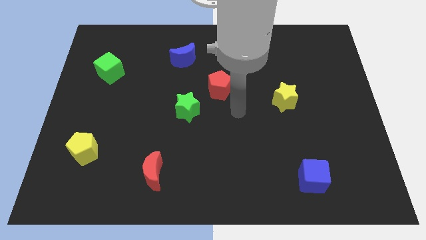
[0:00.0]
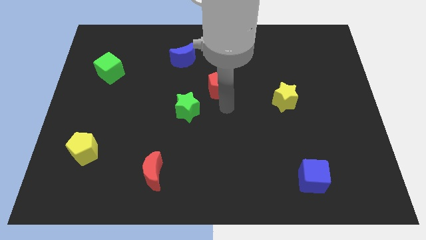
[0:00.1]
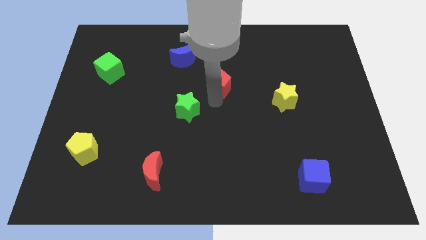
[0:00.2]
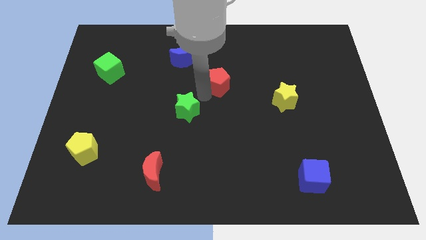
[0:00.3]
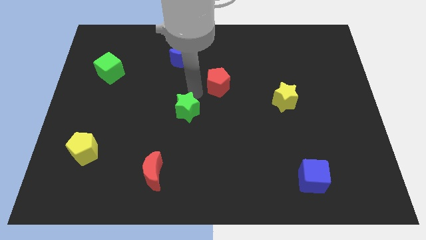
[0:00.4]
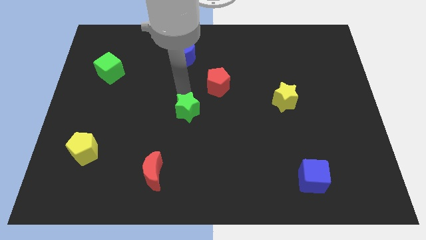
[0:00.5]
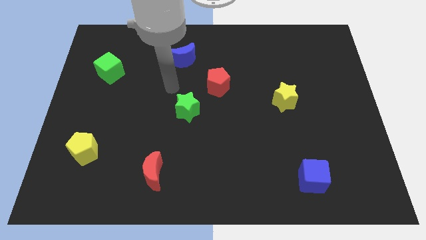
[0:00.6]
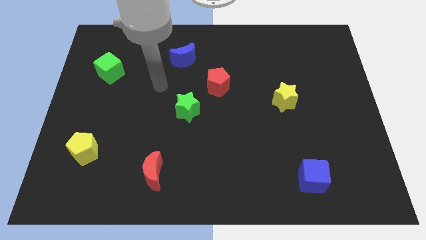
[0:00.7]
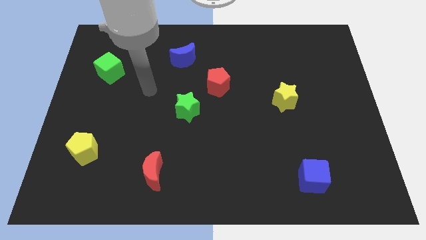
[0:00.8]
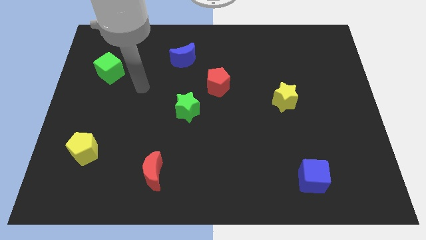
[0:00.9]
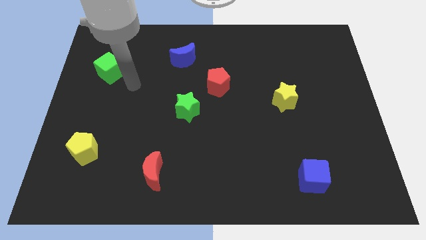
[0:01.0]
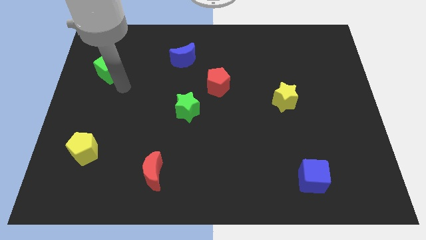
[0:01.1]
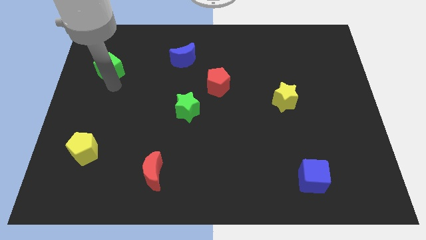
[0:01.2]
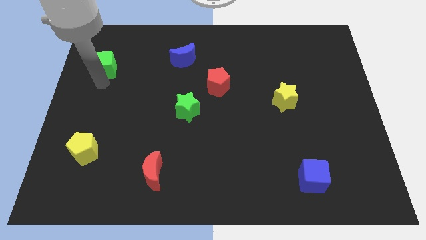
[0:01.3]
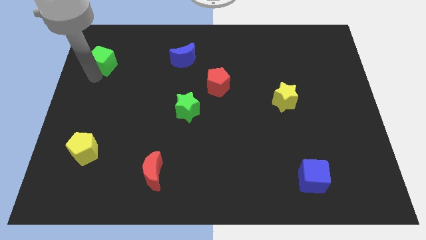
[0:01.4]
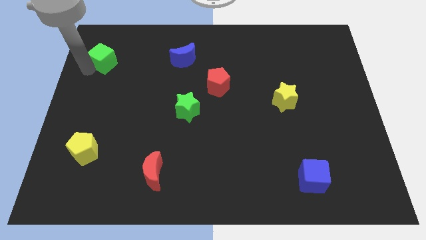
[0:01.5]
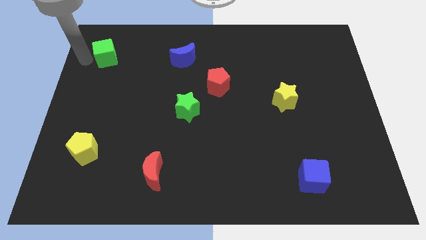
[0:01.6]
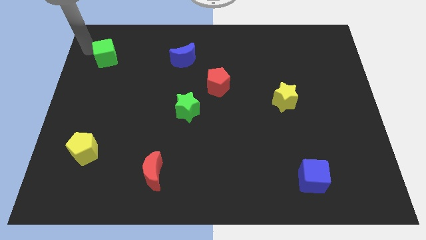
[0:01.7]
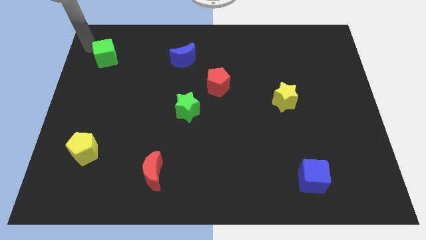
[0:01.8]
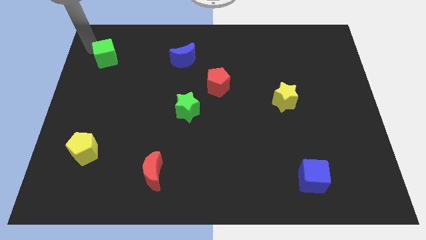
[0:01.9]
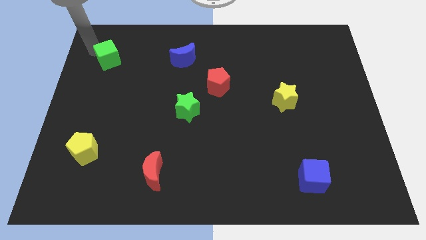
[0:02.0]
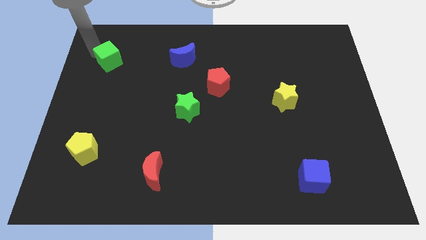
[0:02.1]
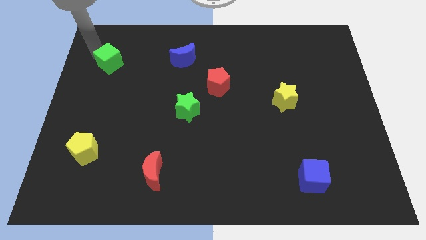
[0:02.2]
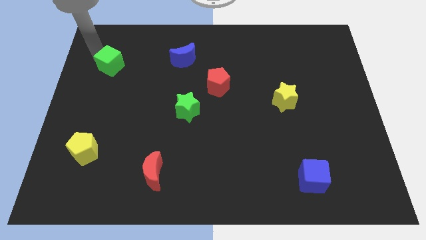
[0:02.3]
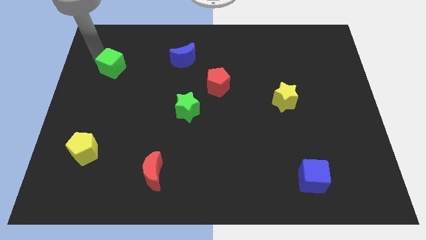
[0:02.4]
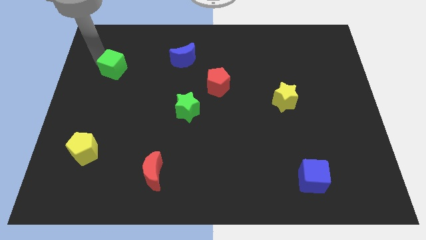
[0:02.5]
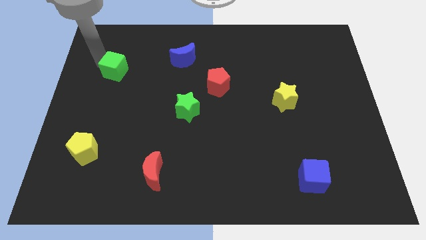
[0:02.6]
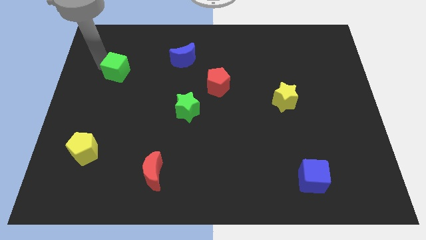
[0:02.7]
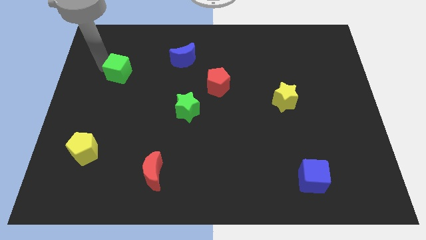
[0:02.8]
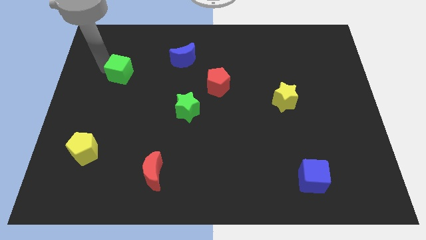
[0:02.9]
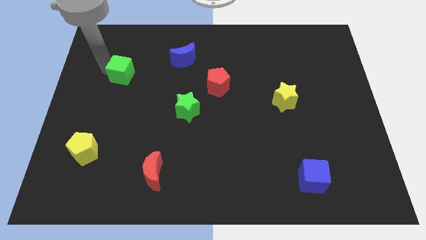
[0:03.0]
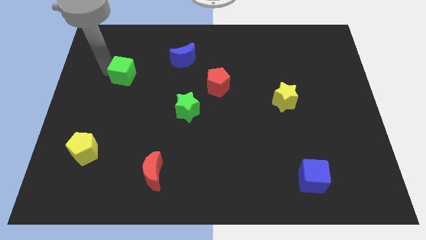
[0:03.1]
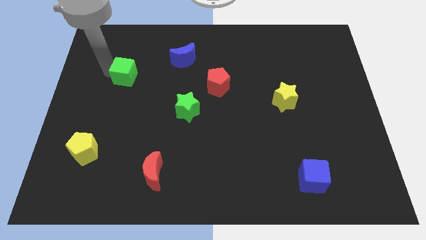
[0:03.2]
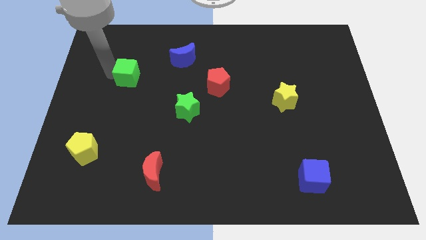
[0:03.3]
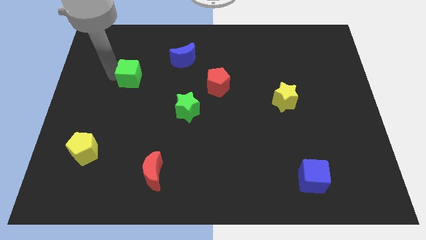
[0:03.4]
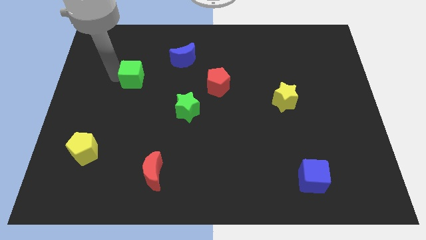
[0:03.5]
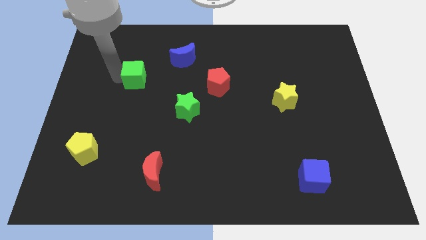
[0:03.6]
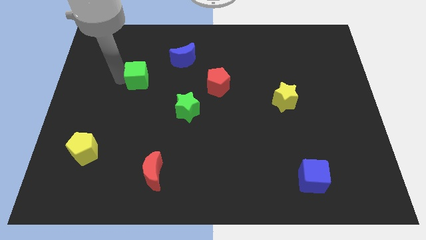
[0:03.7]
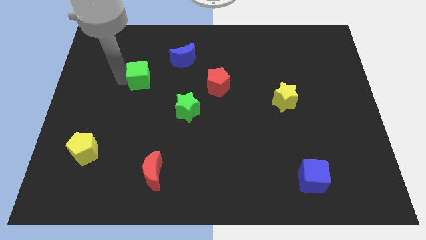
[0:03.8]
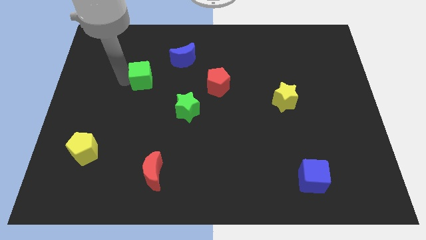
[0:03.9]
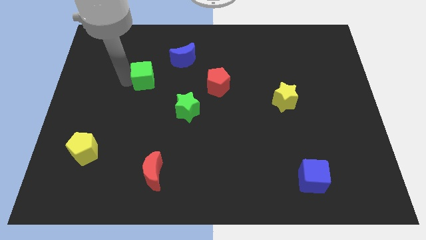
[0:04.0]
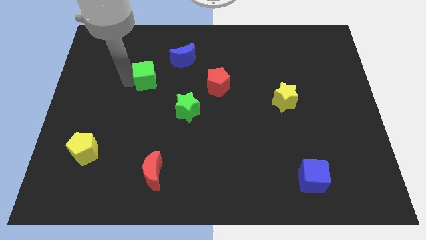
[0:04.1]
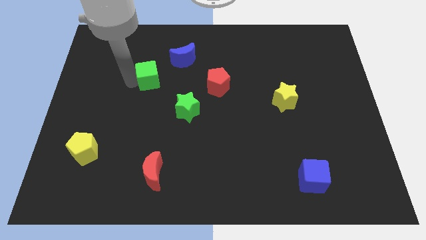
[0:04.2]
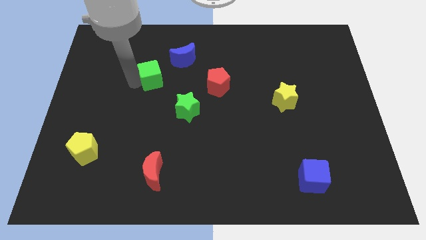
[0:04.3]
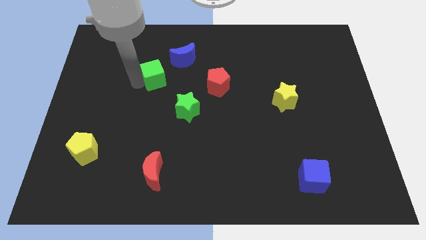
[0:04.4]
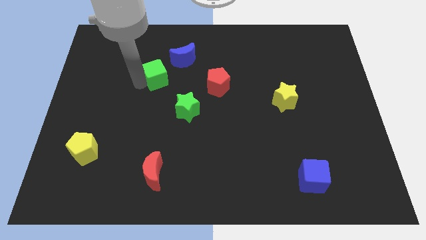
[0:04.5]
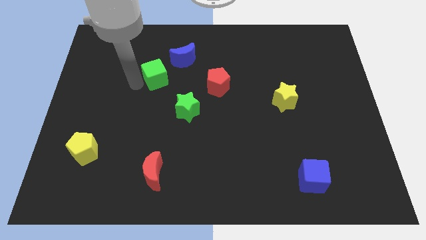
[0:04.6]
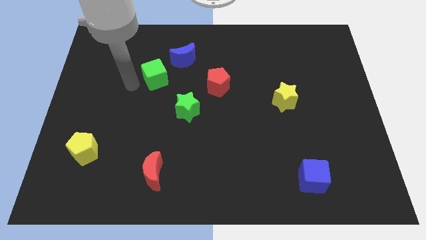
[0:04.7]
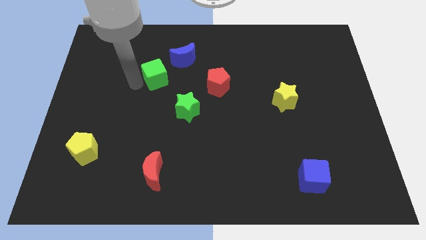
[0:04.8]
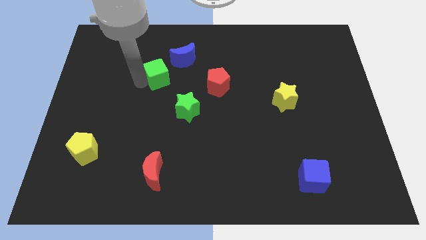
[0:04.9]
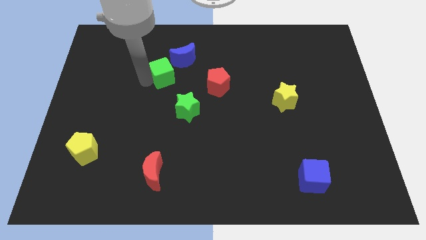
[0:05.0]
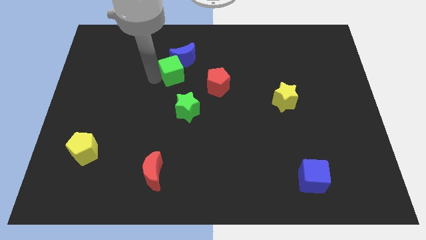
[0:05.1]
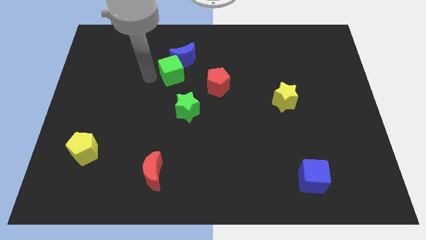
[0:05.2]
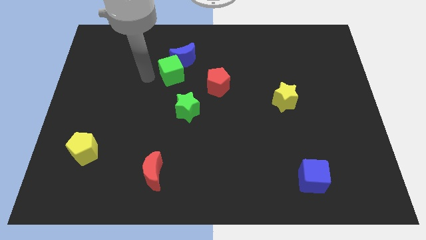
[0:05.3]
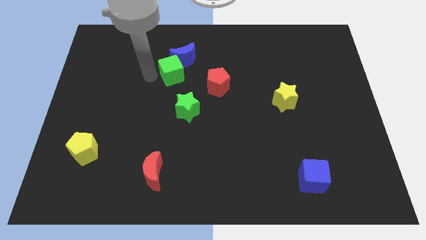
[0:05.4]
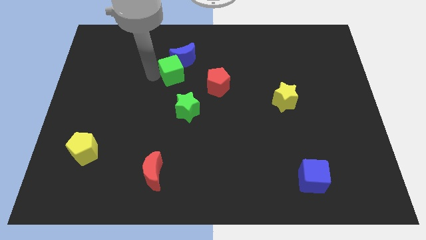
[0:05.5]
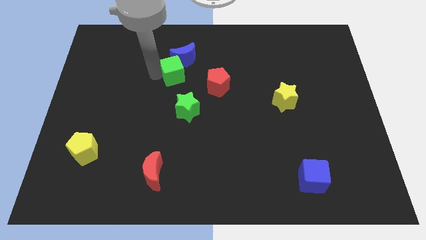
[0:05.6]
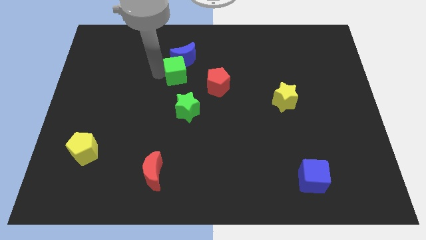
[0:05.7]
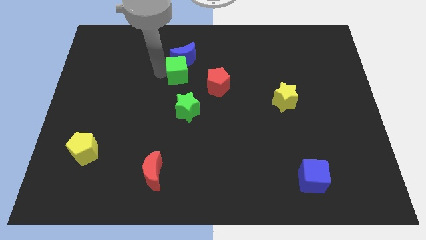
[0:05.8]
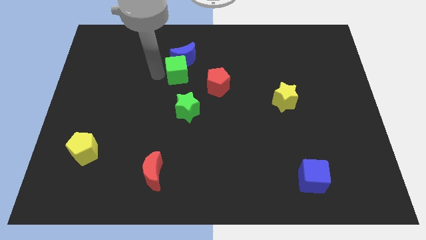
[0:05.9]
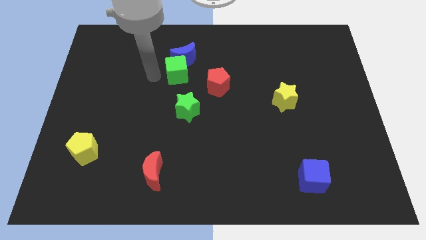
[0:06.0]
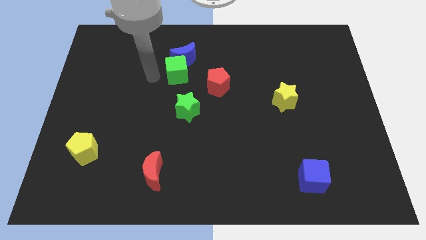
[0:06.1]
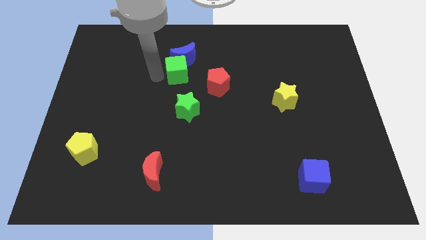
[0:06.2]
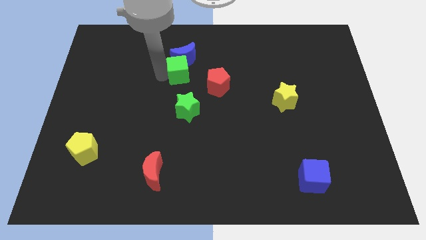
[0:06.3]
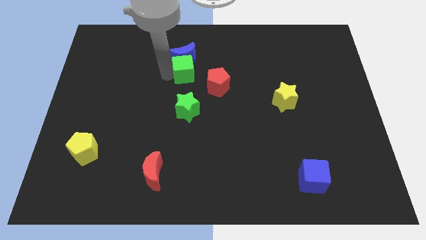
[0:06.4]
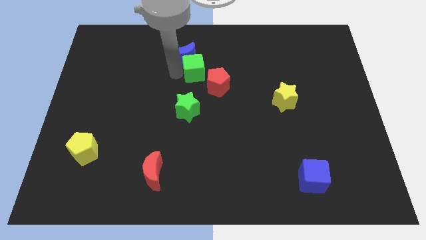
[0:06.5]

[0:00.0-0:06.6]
slide the green cube to the right

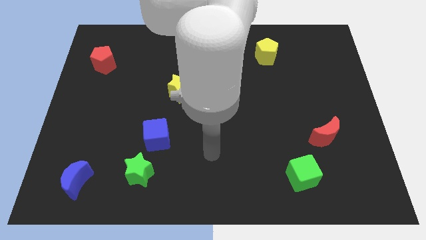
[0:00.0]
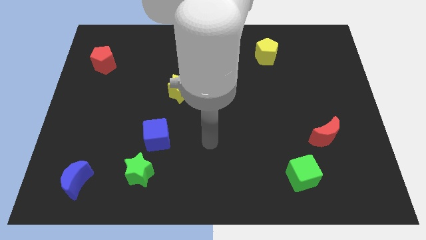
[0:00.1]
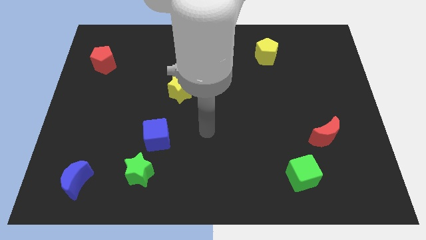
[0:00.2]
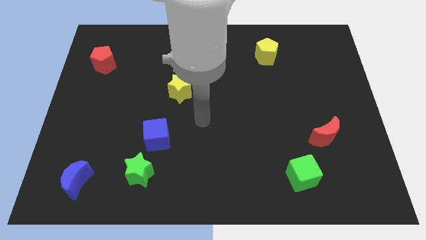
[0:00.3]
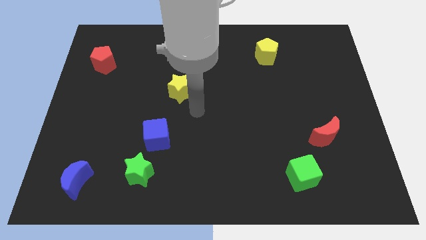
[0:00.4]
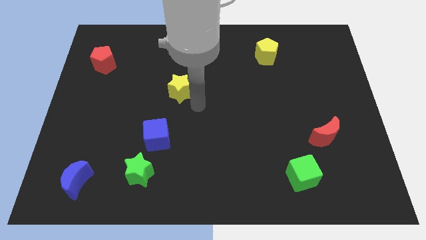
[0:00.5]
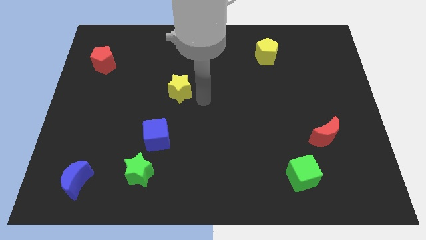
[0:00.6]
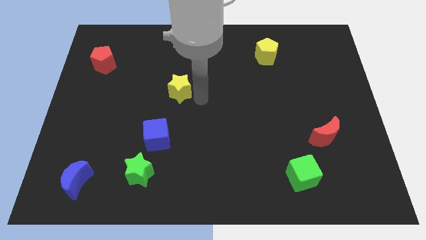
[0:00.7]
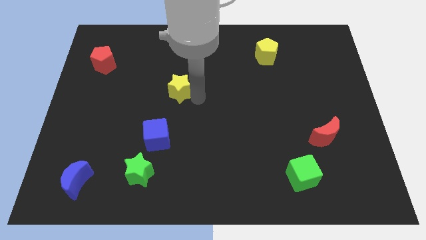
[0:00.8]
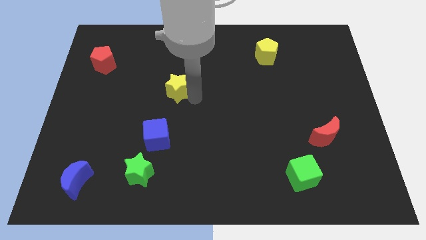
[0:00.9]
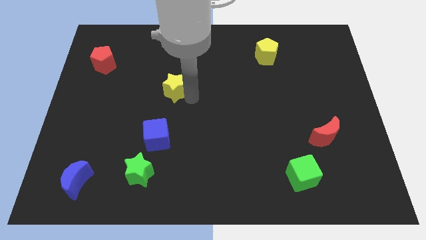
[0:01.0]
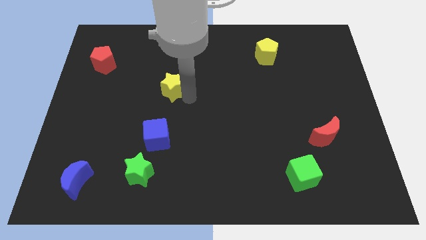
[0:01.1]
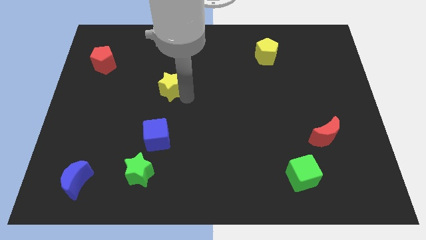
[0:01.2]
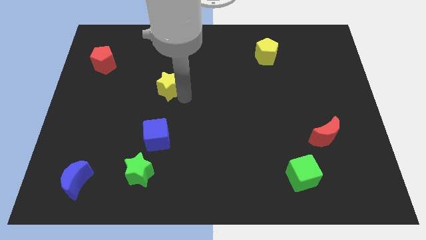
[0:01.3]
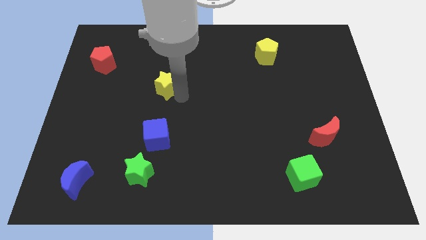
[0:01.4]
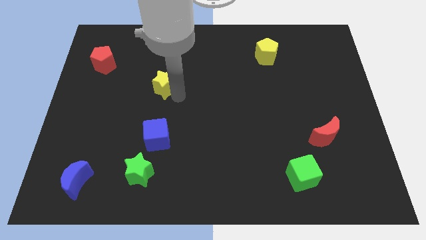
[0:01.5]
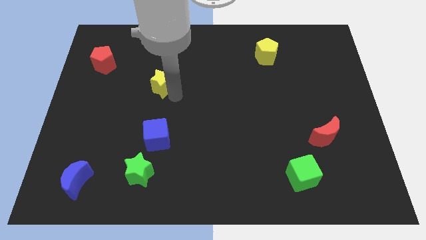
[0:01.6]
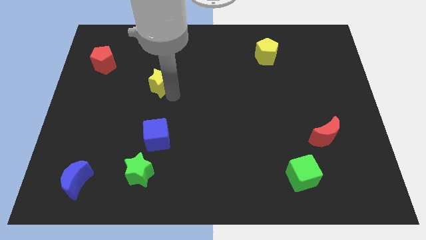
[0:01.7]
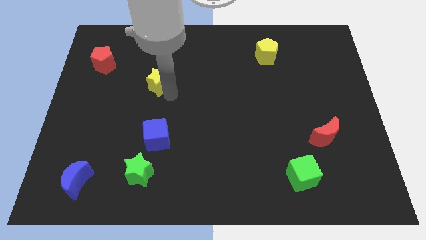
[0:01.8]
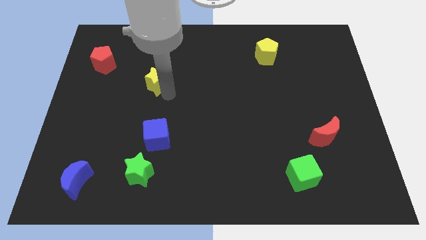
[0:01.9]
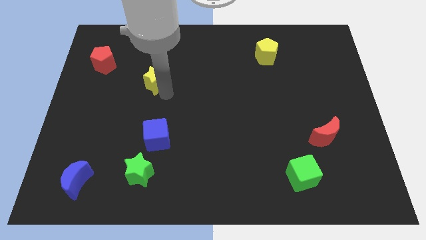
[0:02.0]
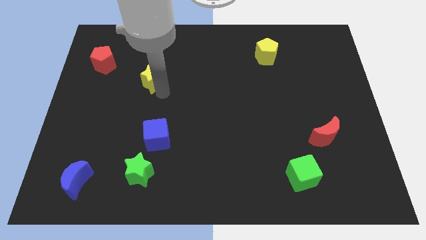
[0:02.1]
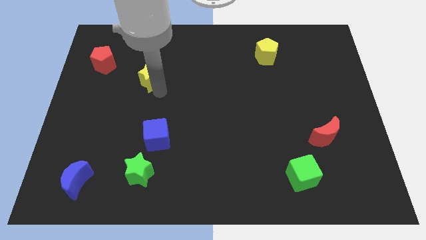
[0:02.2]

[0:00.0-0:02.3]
slightly move the yellow star to the left
